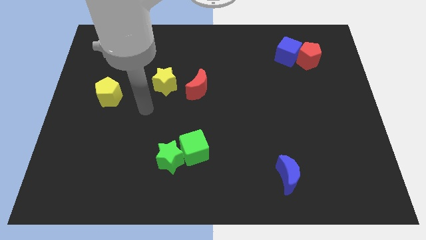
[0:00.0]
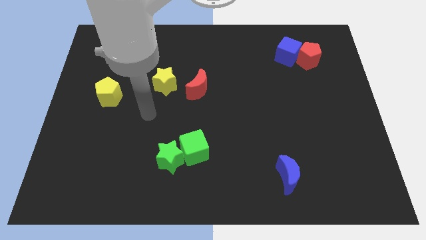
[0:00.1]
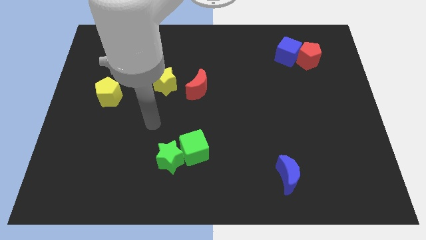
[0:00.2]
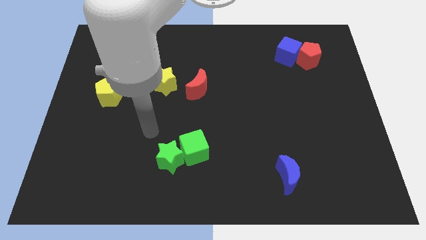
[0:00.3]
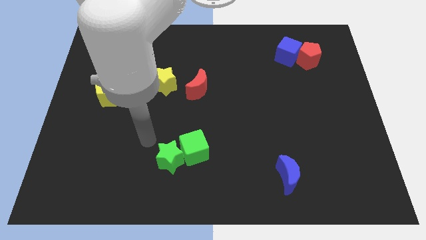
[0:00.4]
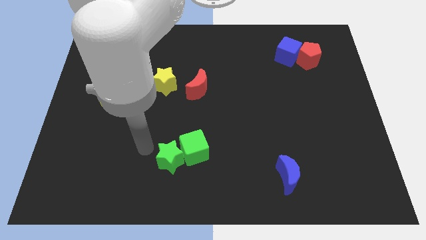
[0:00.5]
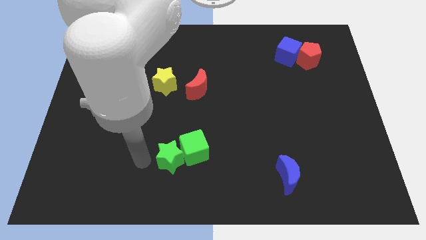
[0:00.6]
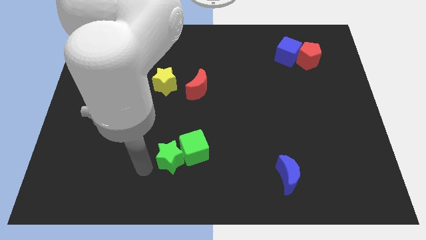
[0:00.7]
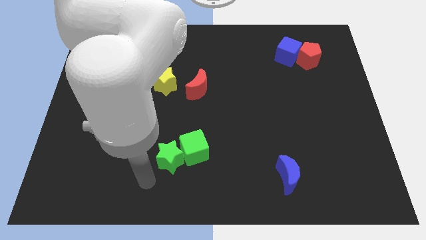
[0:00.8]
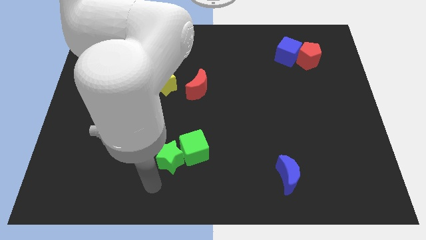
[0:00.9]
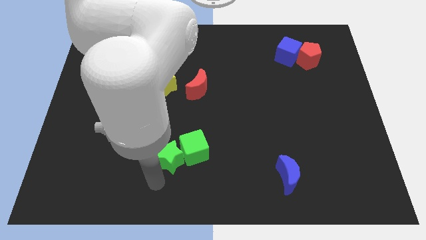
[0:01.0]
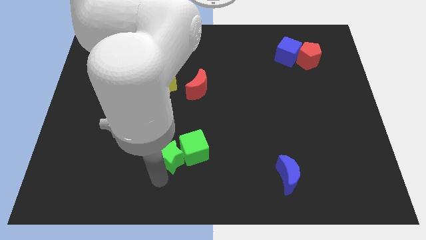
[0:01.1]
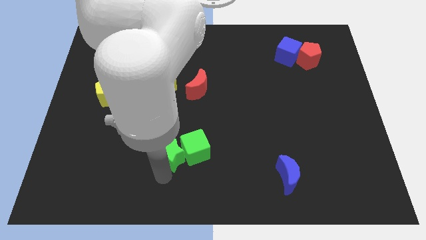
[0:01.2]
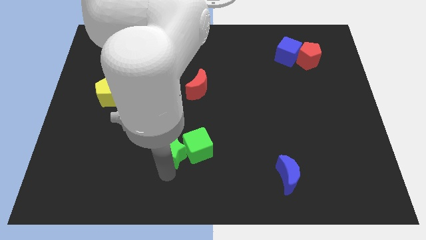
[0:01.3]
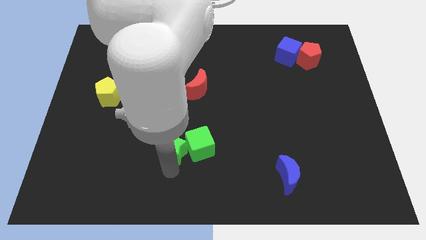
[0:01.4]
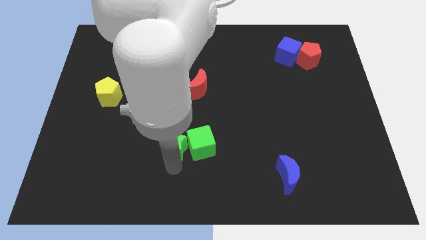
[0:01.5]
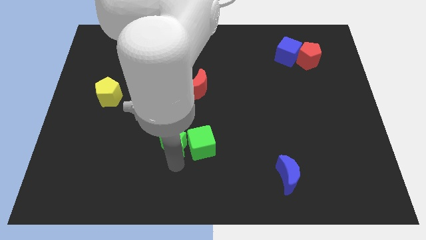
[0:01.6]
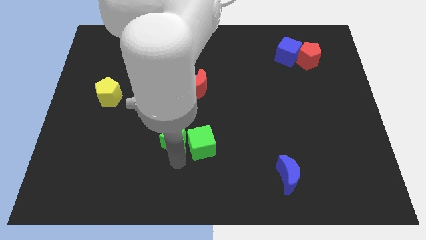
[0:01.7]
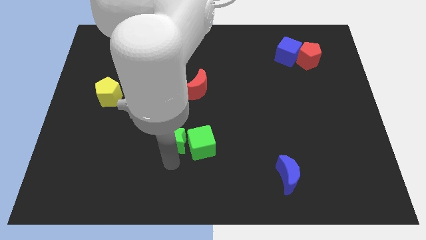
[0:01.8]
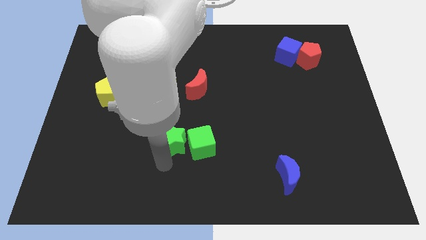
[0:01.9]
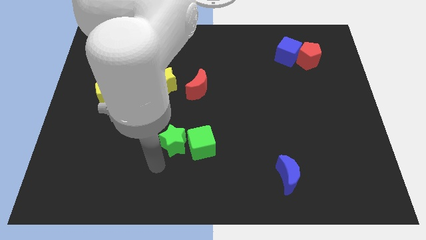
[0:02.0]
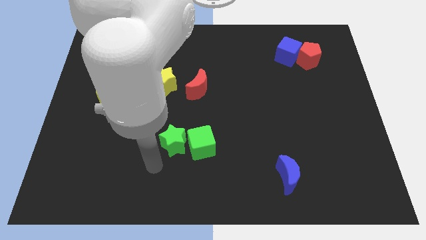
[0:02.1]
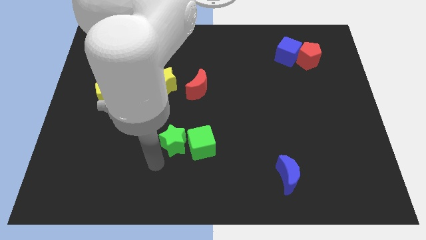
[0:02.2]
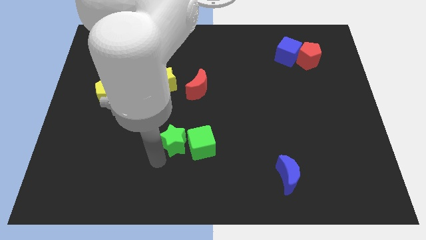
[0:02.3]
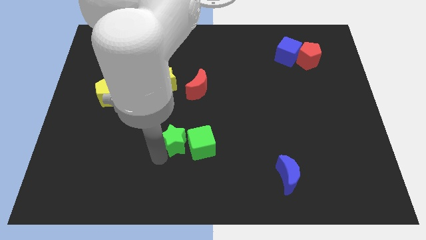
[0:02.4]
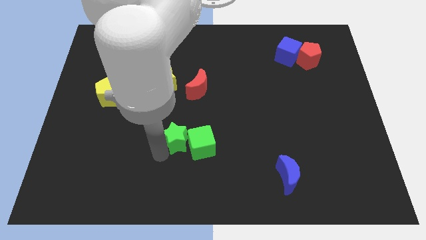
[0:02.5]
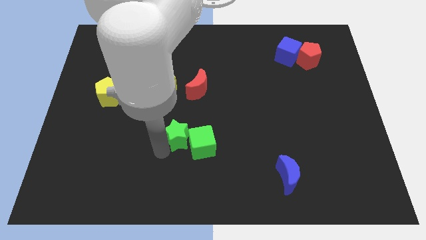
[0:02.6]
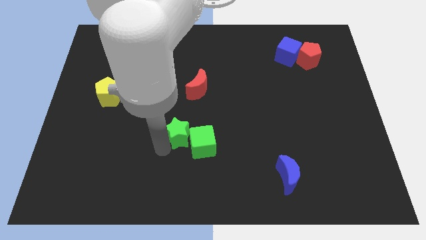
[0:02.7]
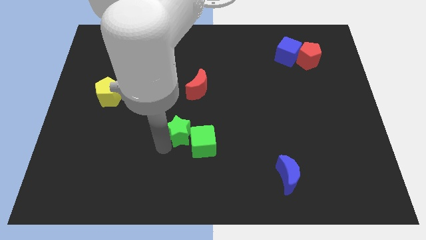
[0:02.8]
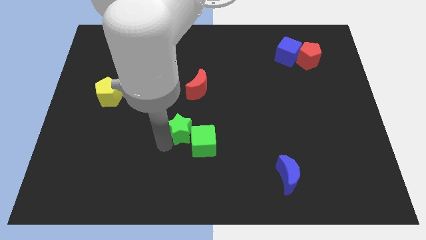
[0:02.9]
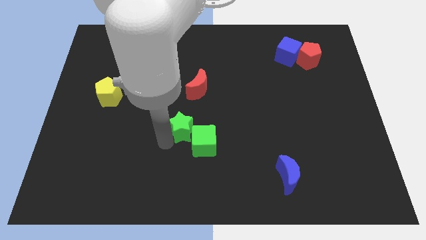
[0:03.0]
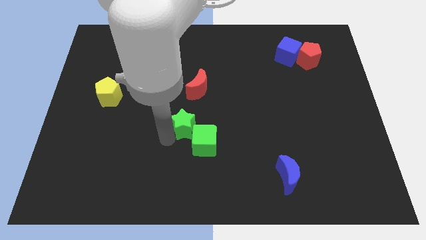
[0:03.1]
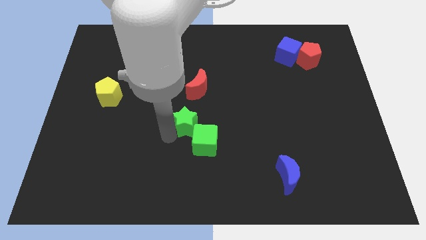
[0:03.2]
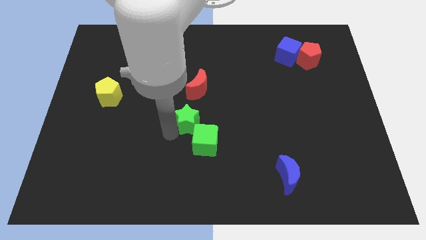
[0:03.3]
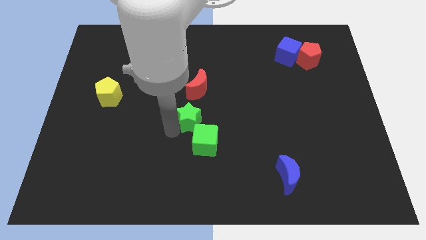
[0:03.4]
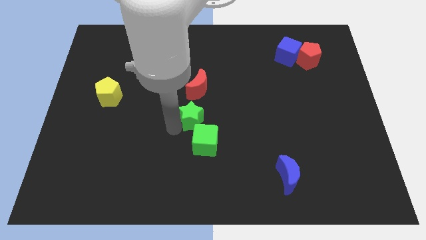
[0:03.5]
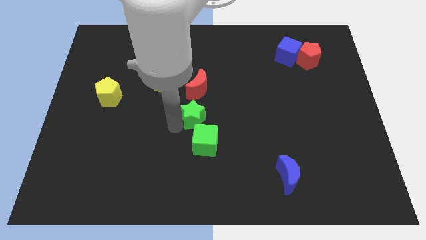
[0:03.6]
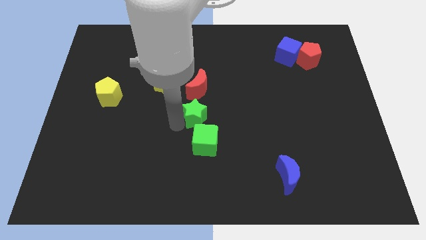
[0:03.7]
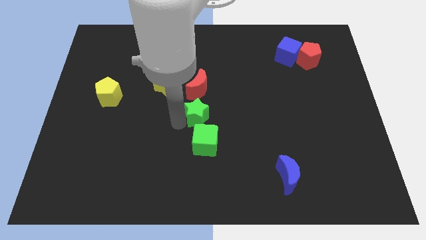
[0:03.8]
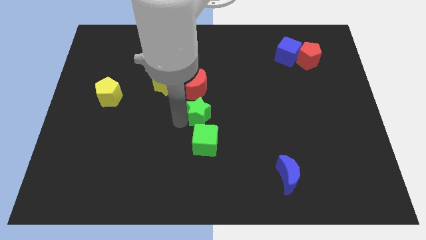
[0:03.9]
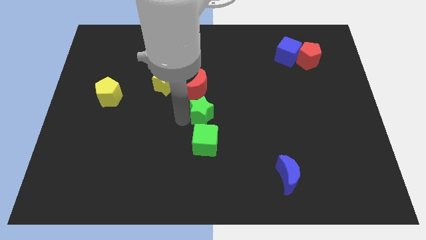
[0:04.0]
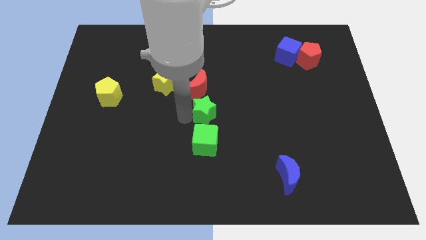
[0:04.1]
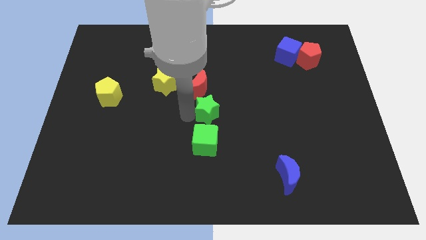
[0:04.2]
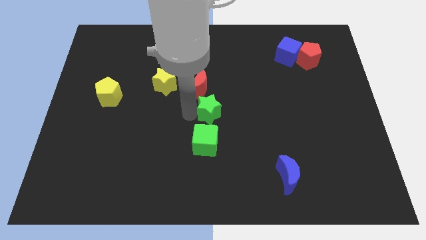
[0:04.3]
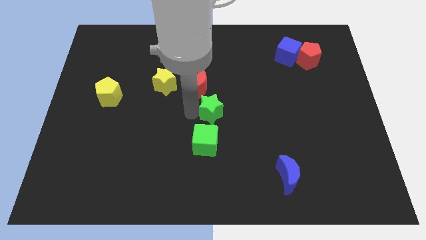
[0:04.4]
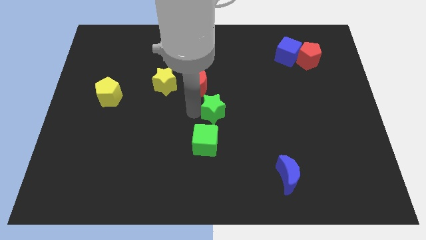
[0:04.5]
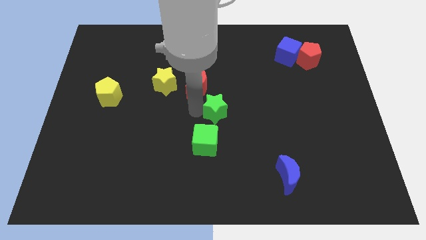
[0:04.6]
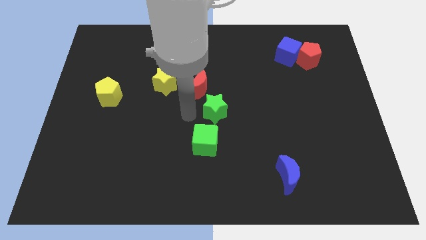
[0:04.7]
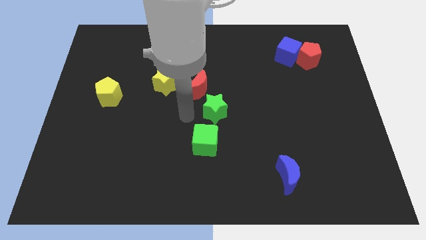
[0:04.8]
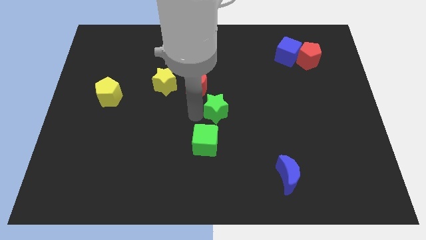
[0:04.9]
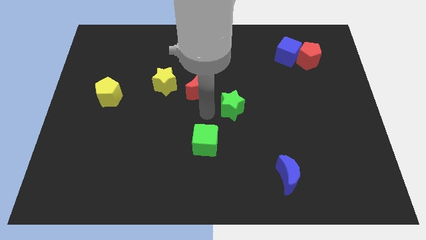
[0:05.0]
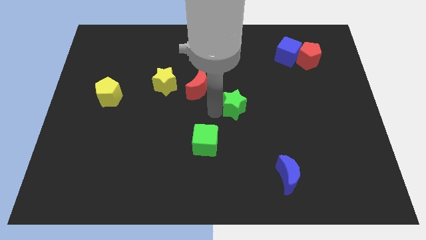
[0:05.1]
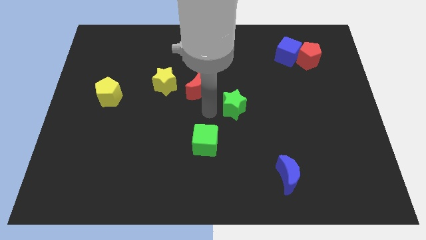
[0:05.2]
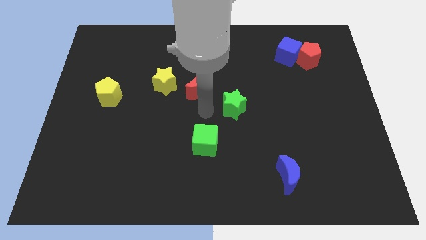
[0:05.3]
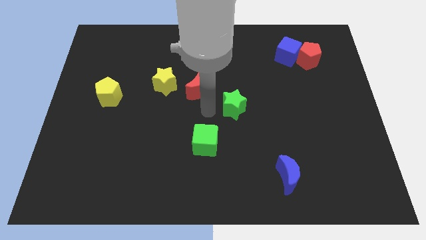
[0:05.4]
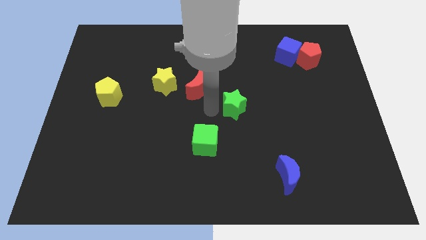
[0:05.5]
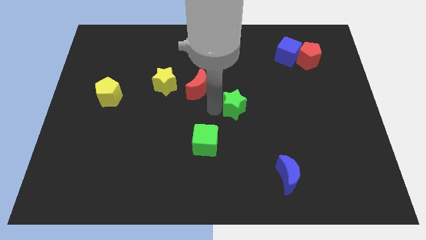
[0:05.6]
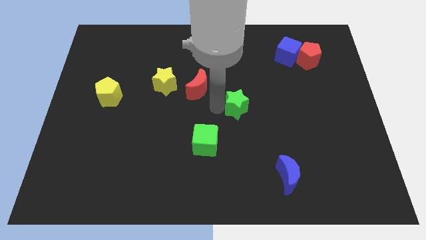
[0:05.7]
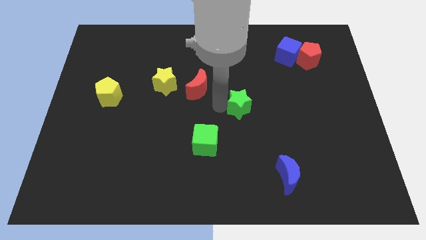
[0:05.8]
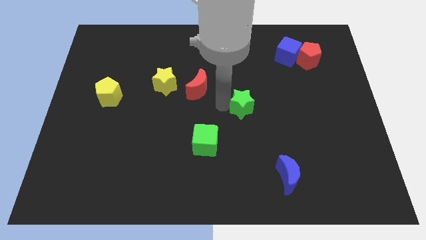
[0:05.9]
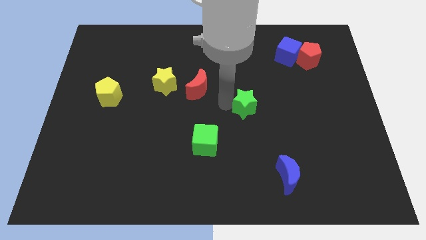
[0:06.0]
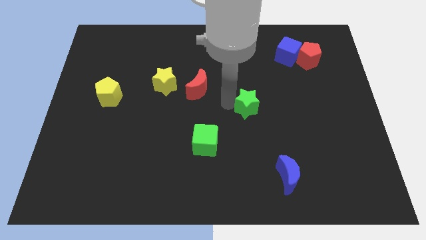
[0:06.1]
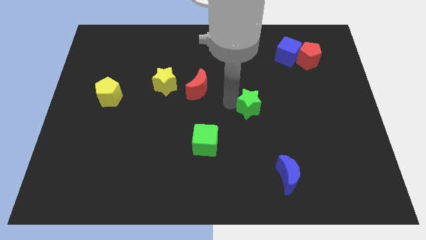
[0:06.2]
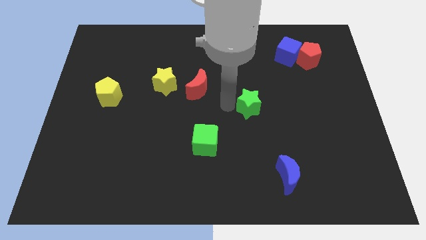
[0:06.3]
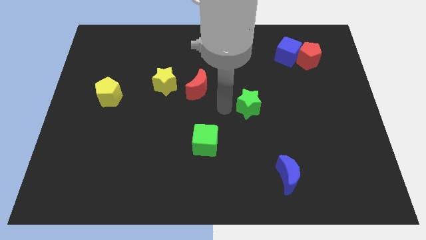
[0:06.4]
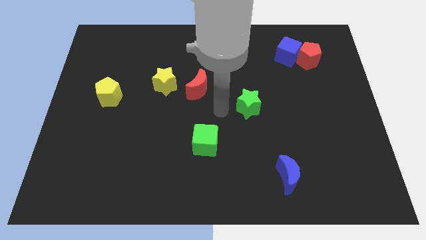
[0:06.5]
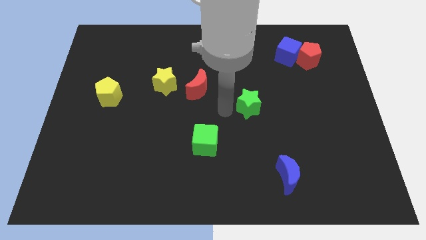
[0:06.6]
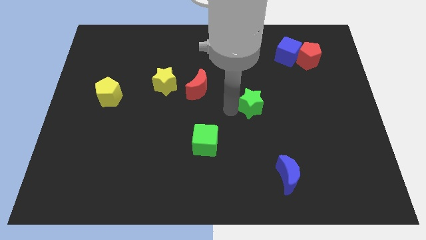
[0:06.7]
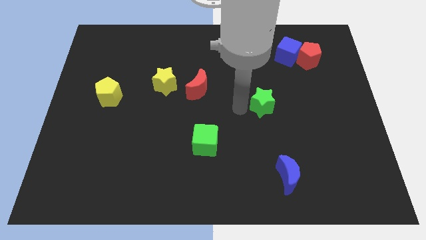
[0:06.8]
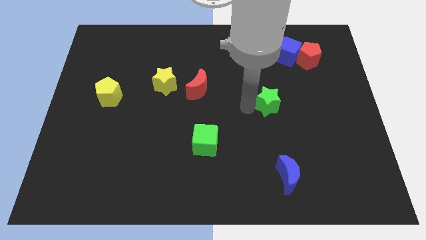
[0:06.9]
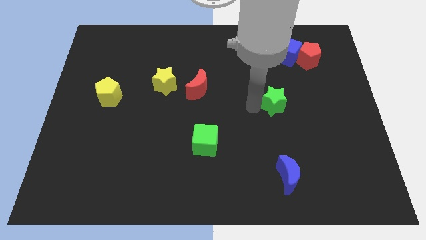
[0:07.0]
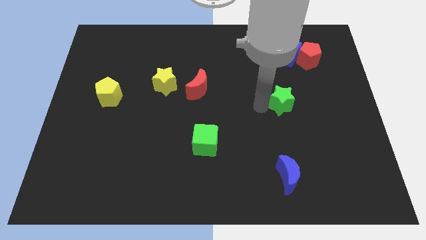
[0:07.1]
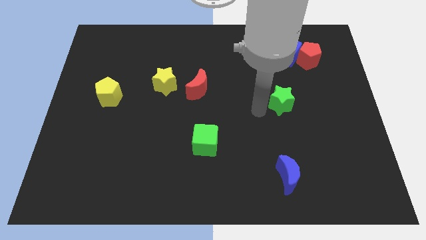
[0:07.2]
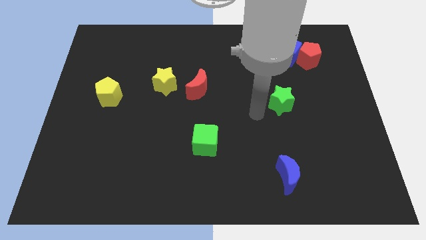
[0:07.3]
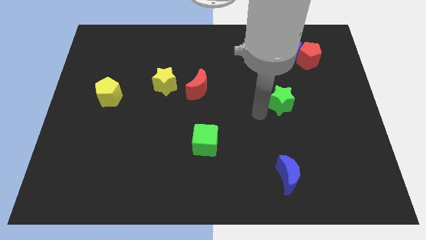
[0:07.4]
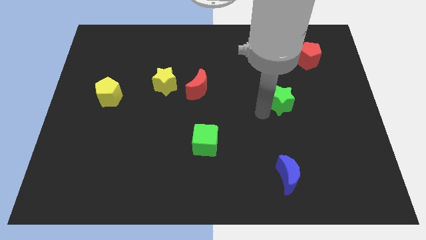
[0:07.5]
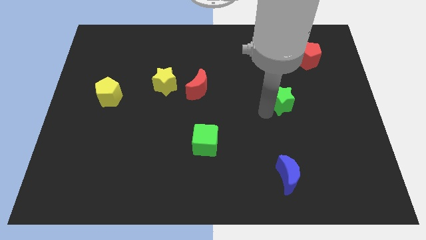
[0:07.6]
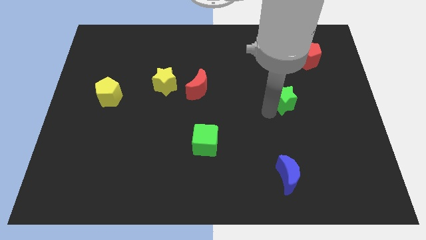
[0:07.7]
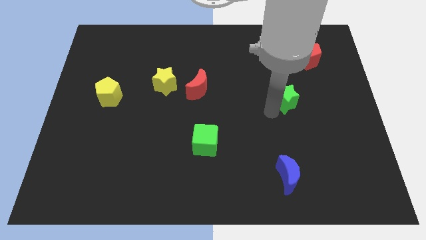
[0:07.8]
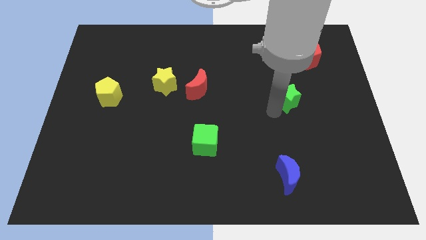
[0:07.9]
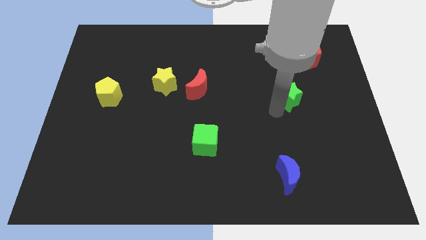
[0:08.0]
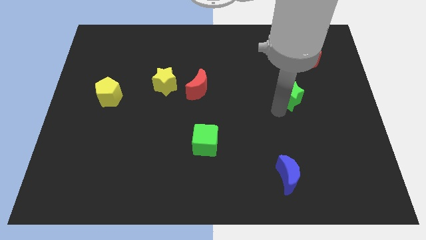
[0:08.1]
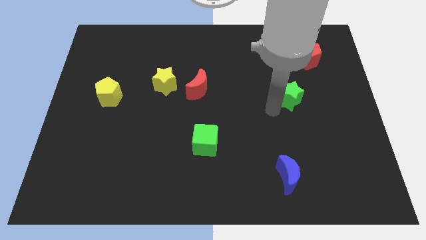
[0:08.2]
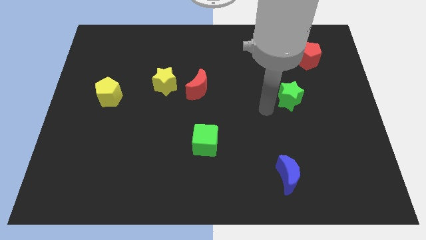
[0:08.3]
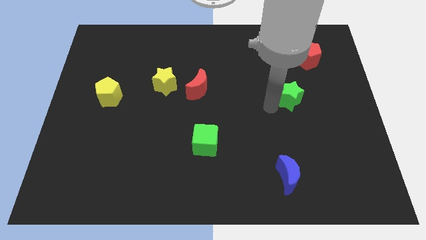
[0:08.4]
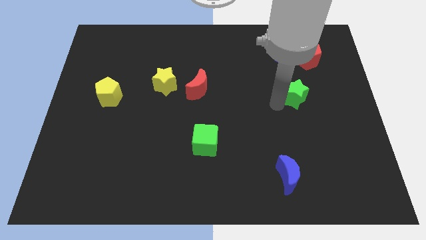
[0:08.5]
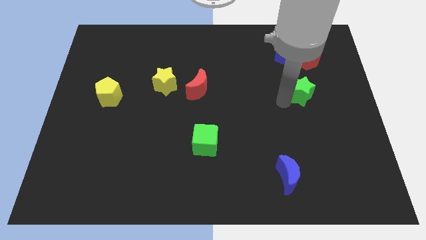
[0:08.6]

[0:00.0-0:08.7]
push the green star to the bottom side of the red pentagon
